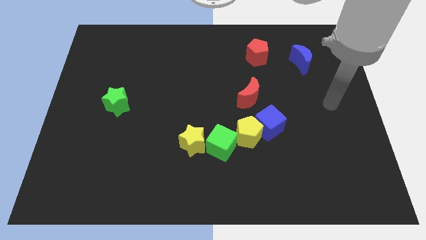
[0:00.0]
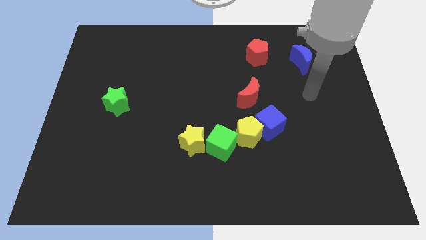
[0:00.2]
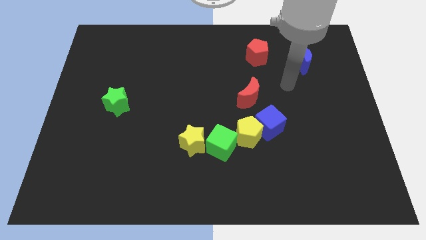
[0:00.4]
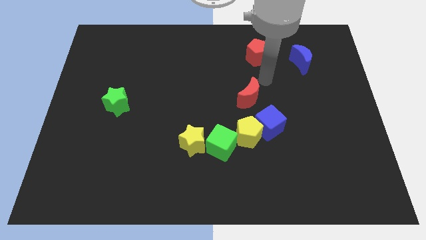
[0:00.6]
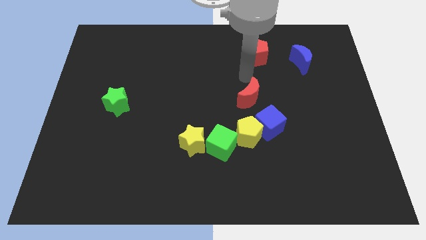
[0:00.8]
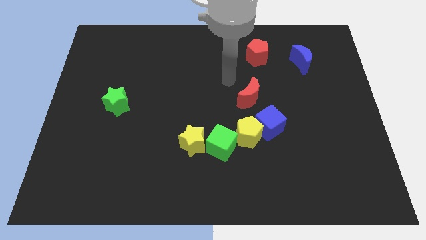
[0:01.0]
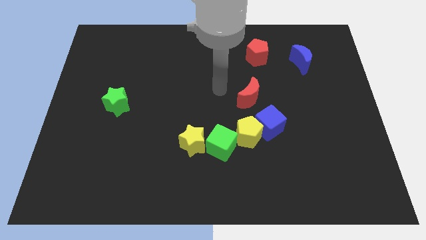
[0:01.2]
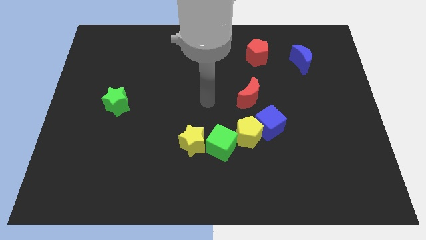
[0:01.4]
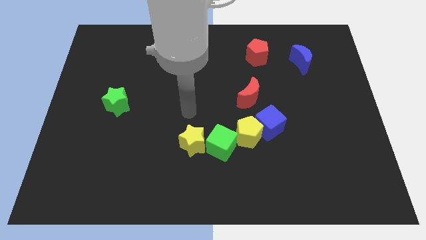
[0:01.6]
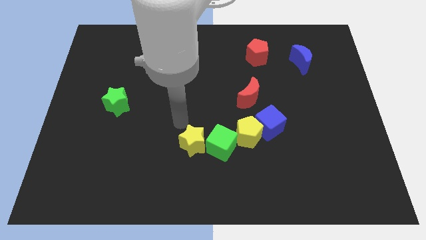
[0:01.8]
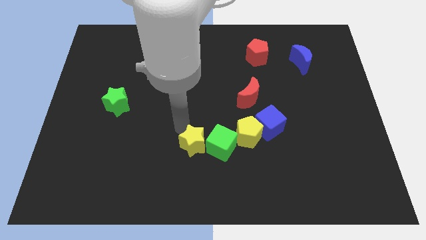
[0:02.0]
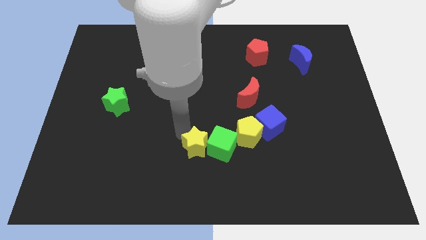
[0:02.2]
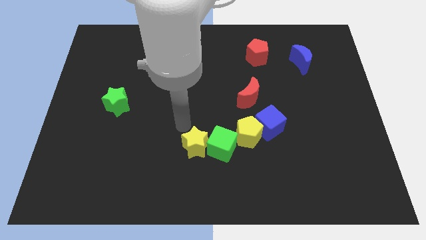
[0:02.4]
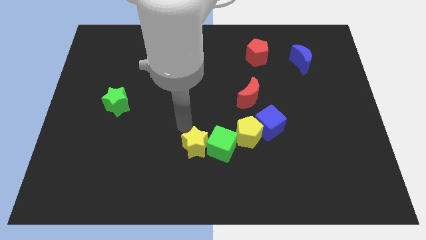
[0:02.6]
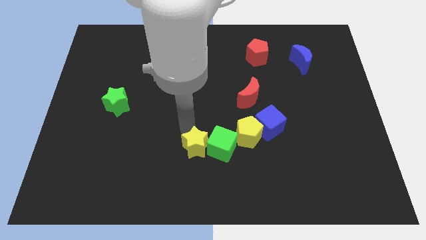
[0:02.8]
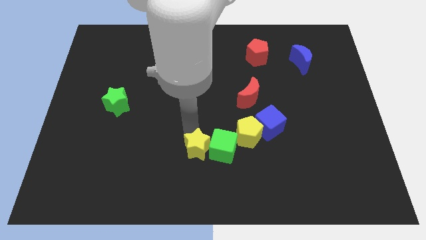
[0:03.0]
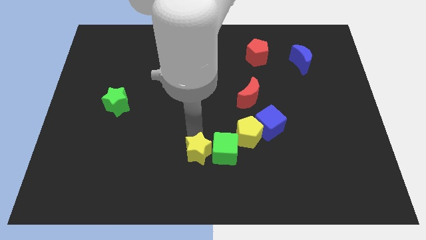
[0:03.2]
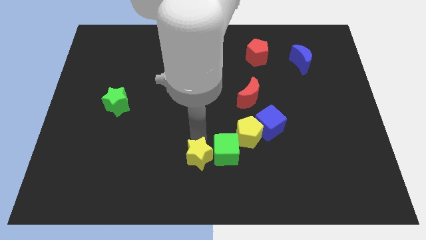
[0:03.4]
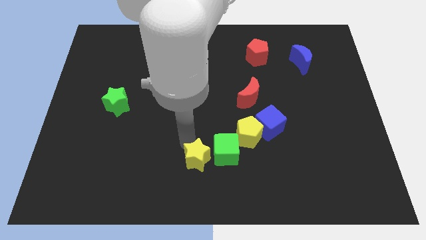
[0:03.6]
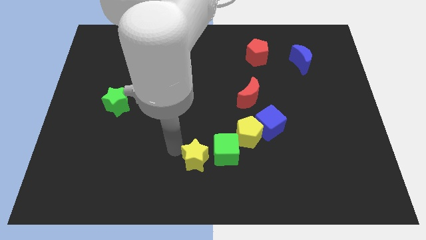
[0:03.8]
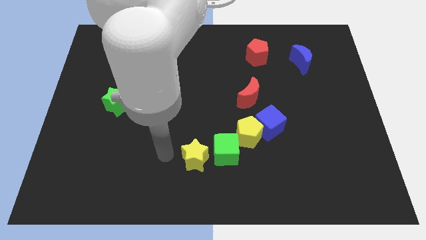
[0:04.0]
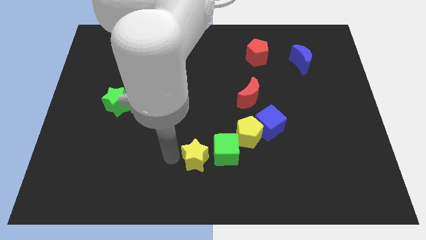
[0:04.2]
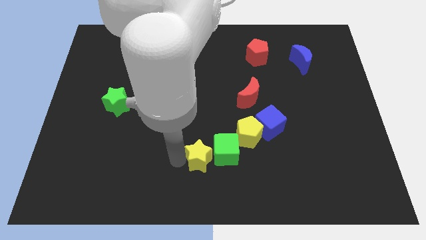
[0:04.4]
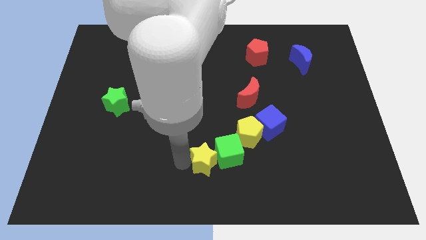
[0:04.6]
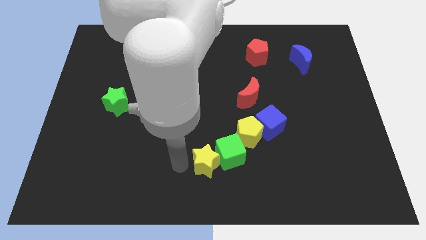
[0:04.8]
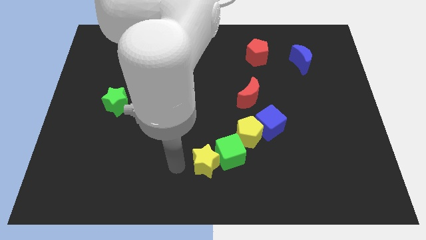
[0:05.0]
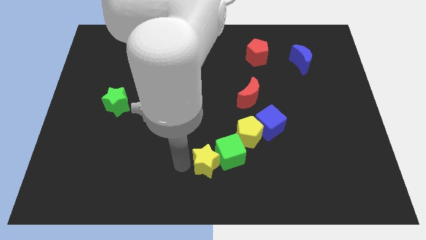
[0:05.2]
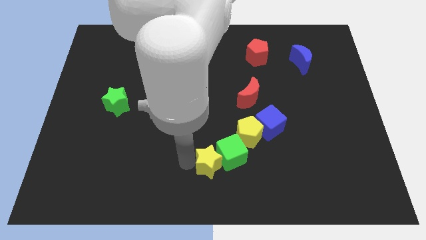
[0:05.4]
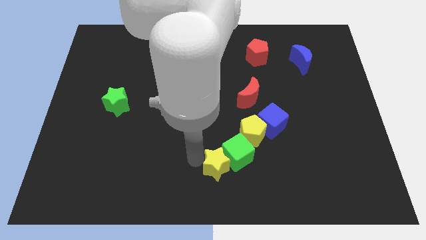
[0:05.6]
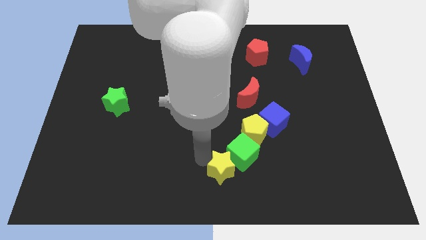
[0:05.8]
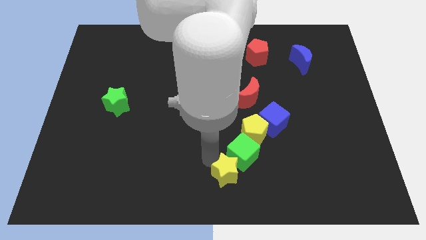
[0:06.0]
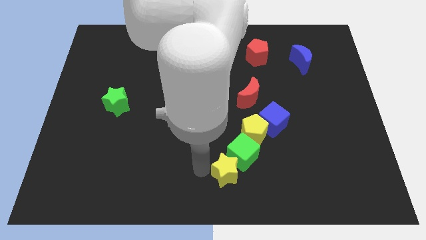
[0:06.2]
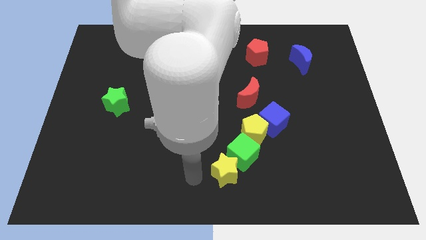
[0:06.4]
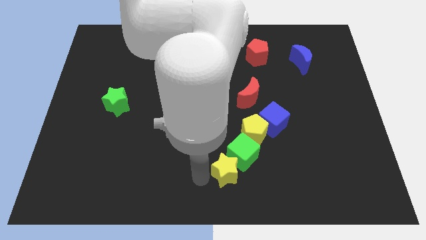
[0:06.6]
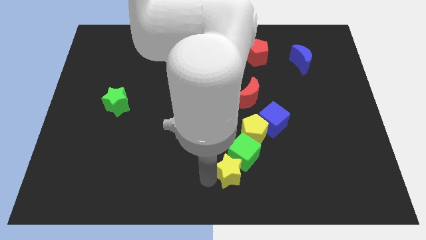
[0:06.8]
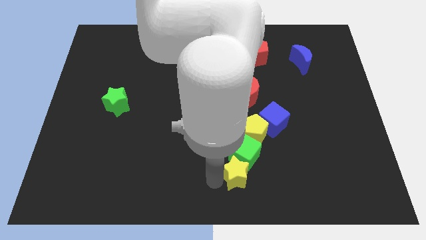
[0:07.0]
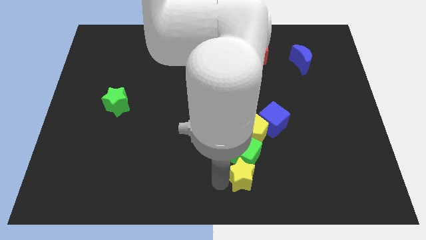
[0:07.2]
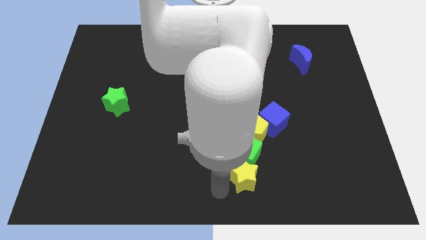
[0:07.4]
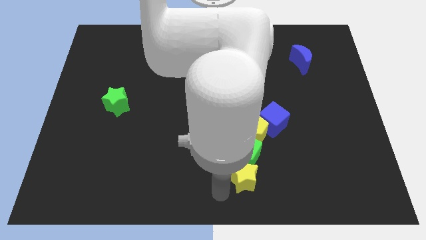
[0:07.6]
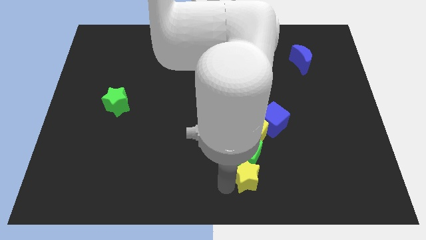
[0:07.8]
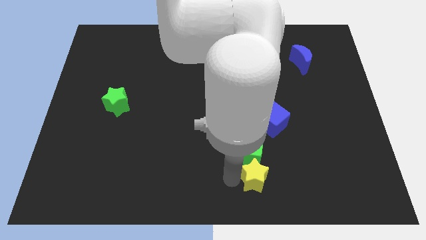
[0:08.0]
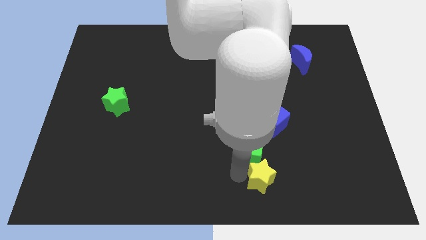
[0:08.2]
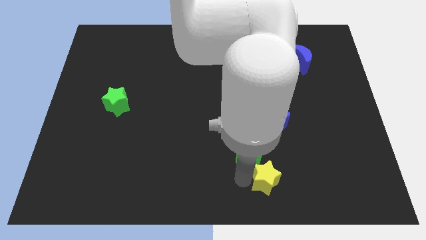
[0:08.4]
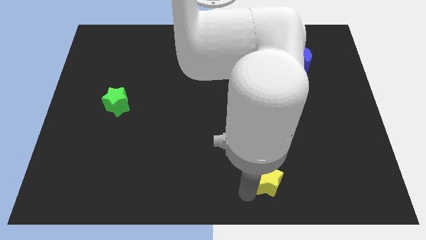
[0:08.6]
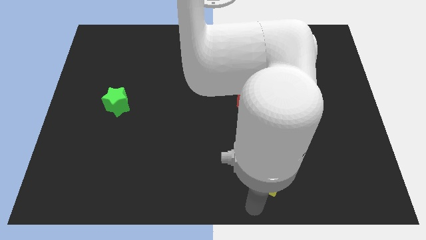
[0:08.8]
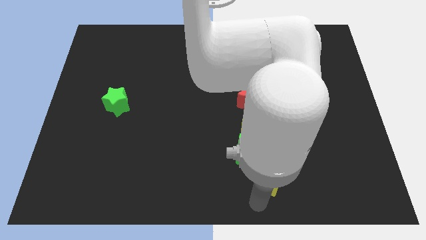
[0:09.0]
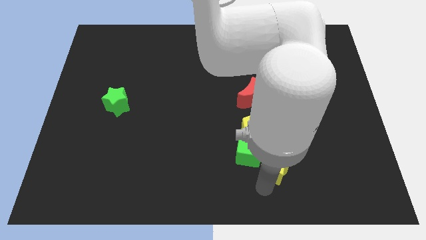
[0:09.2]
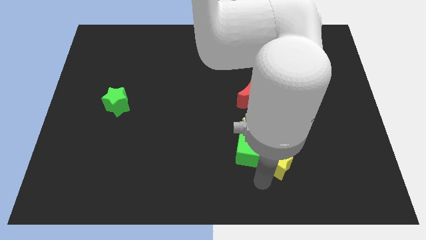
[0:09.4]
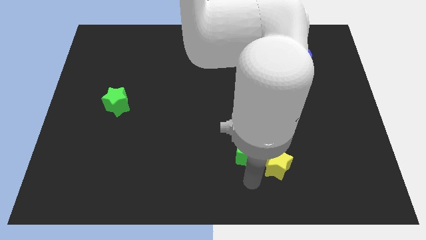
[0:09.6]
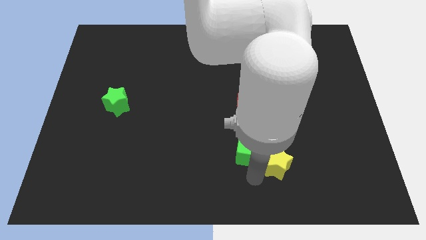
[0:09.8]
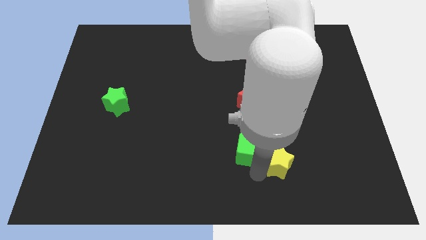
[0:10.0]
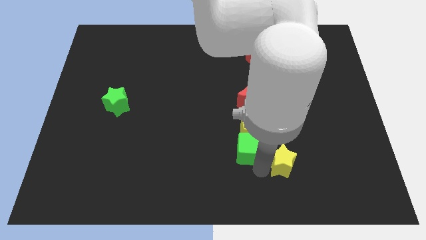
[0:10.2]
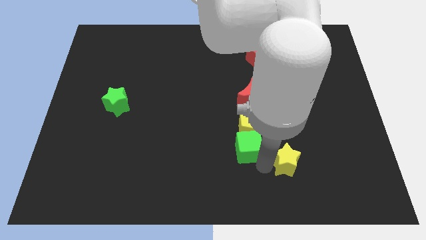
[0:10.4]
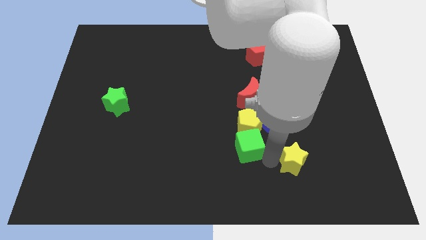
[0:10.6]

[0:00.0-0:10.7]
slide the yellow star to the right

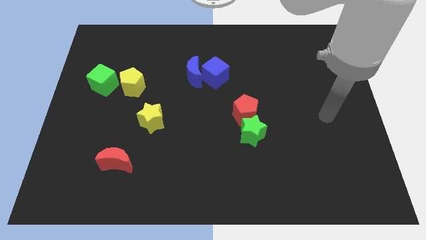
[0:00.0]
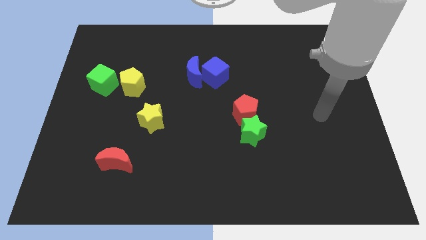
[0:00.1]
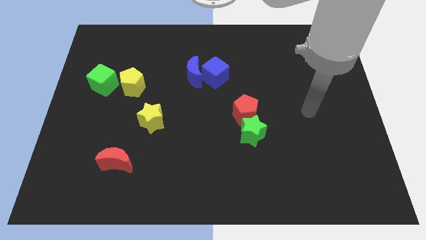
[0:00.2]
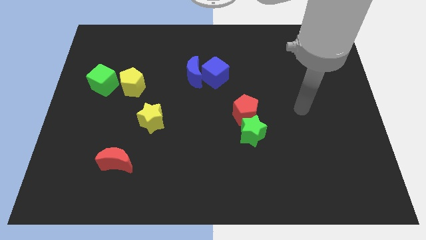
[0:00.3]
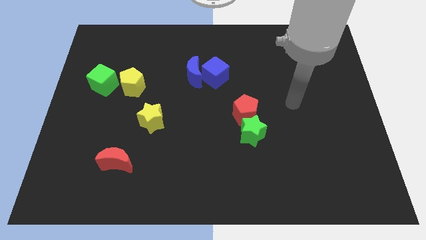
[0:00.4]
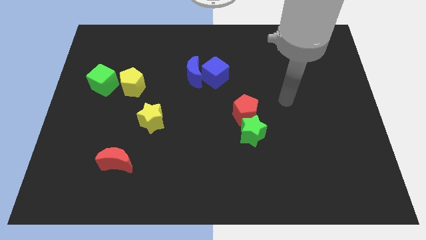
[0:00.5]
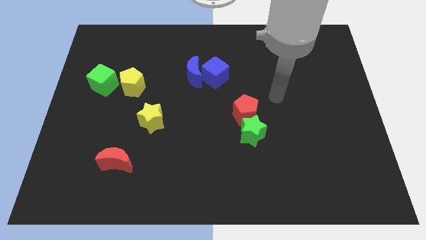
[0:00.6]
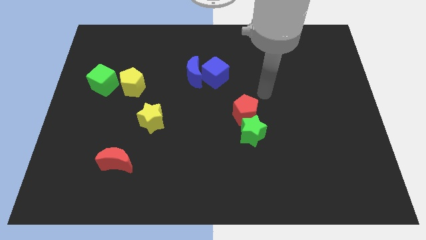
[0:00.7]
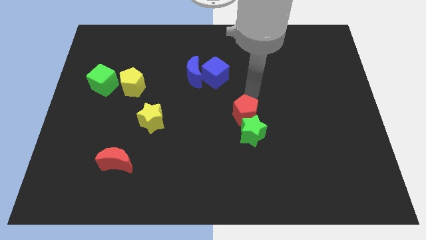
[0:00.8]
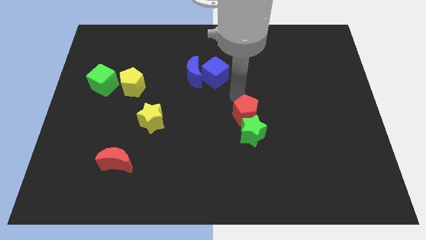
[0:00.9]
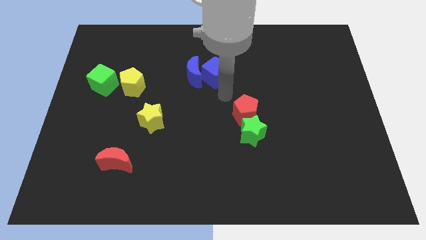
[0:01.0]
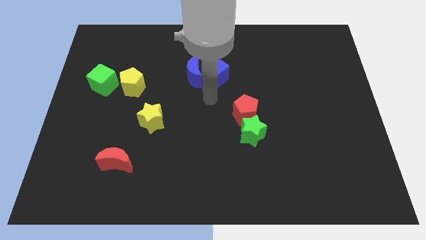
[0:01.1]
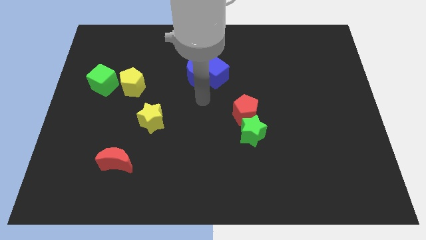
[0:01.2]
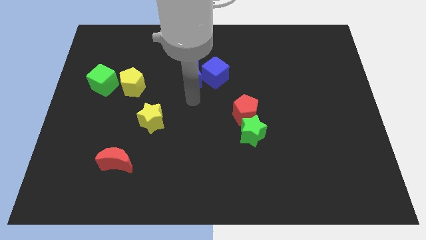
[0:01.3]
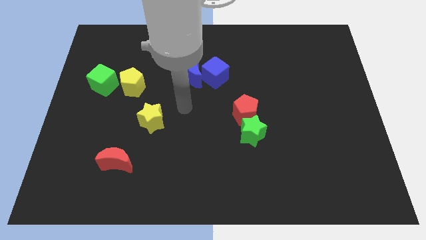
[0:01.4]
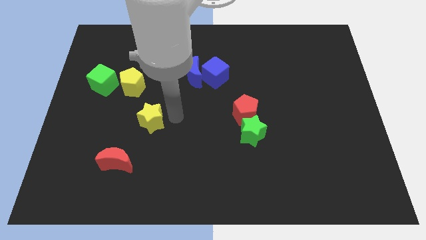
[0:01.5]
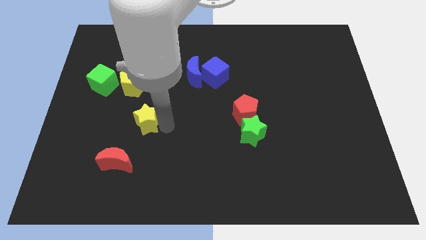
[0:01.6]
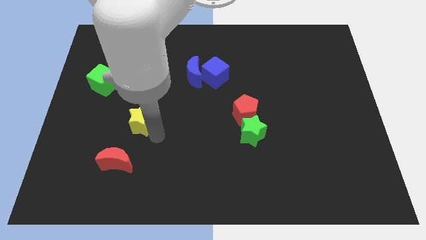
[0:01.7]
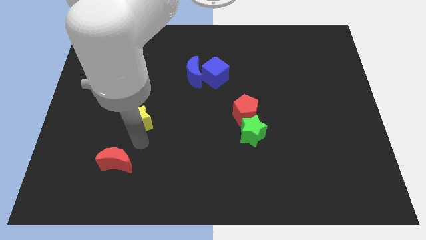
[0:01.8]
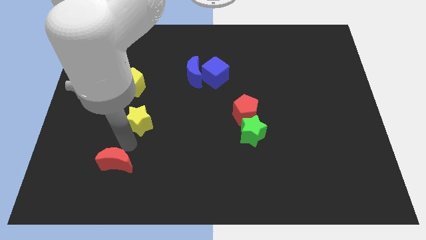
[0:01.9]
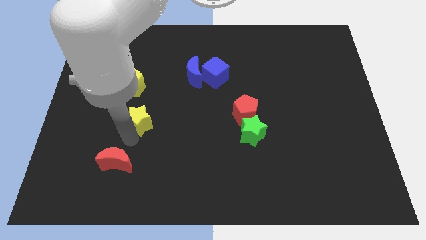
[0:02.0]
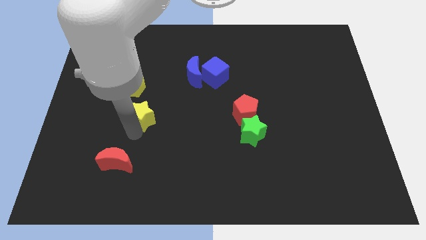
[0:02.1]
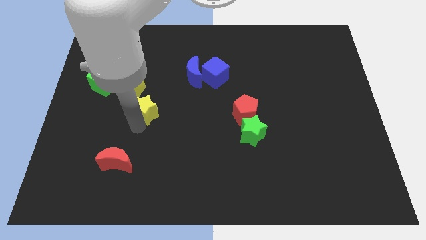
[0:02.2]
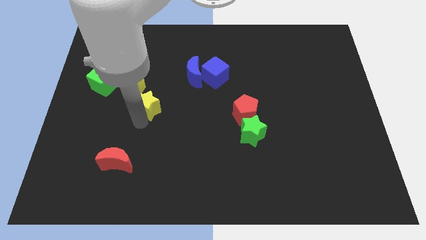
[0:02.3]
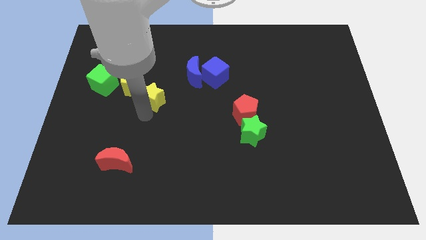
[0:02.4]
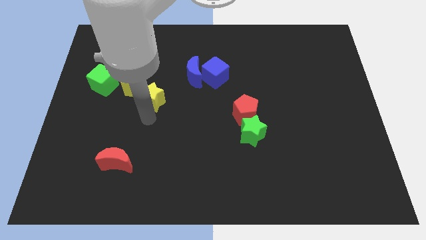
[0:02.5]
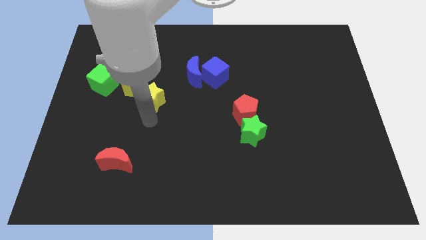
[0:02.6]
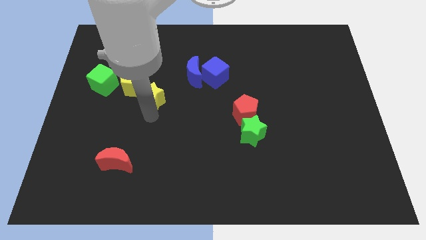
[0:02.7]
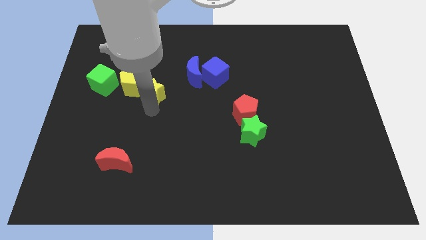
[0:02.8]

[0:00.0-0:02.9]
slide the yellow star a little upwards

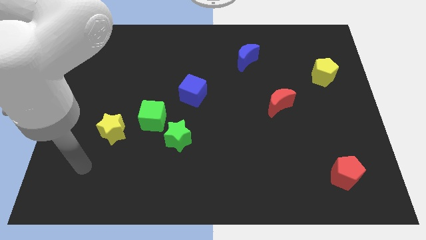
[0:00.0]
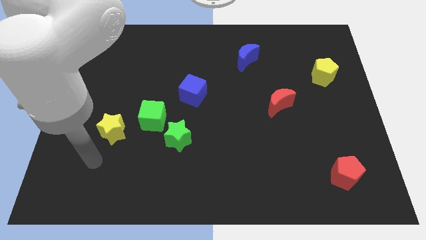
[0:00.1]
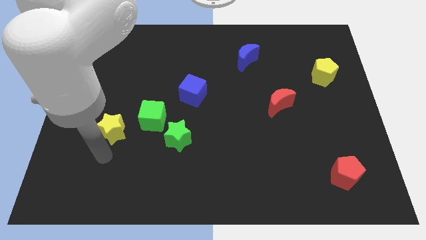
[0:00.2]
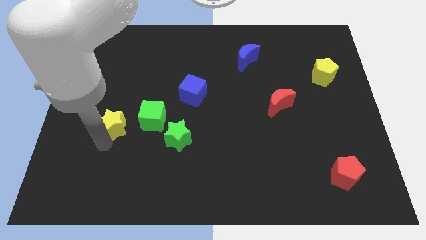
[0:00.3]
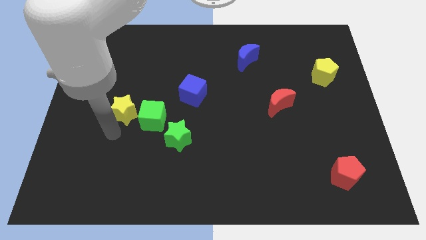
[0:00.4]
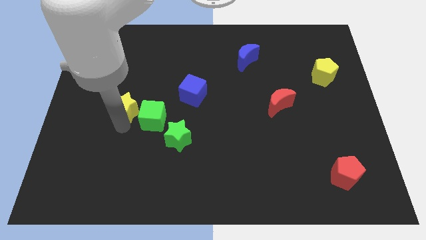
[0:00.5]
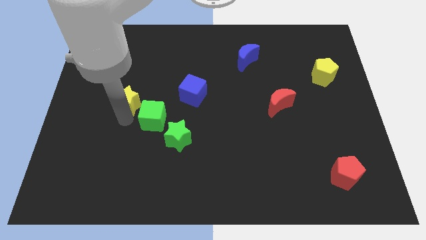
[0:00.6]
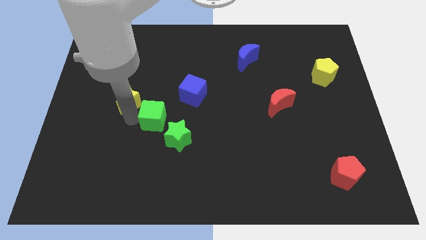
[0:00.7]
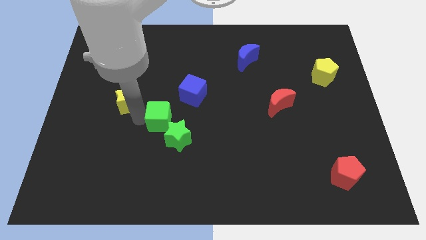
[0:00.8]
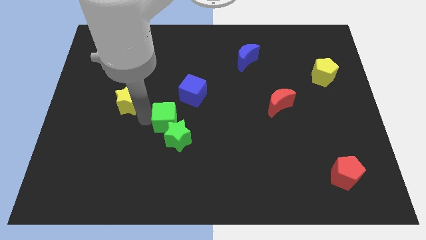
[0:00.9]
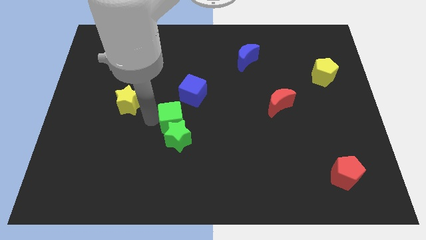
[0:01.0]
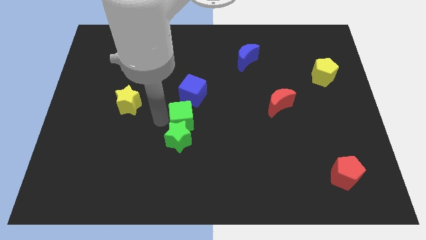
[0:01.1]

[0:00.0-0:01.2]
move the green cube slightly to the right
